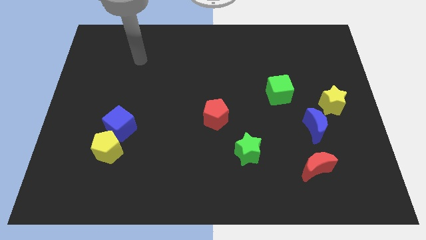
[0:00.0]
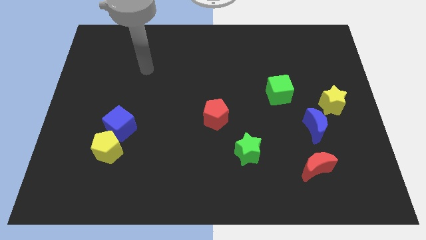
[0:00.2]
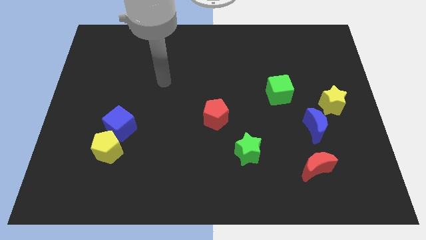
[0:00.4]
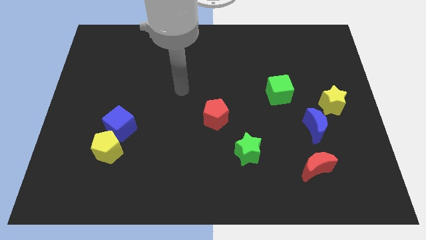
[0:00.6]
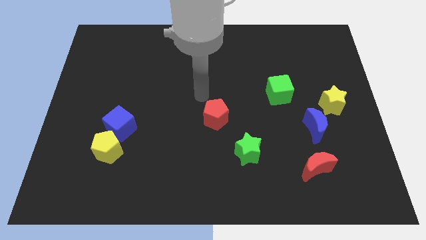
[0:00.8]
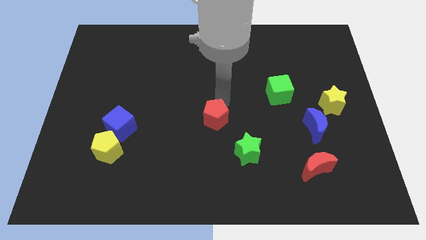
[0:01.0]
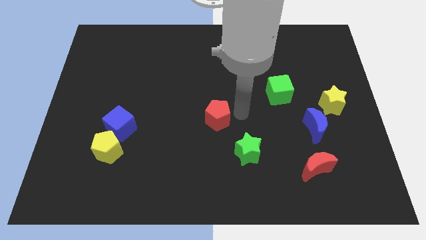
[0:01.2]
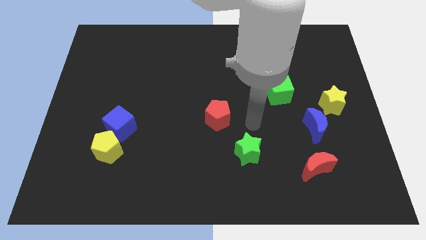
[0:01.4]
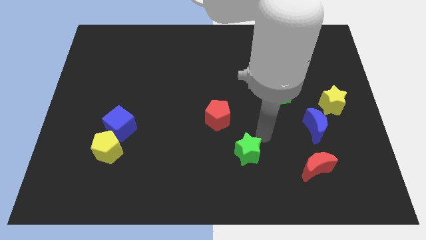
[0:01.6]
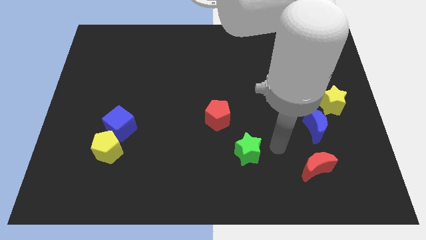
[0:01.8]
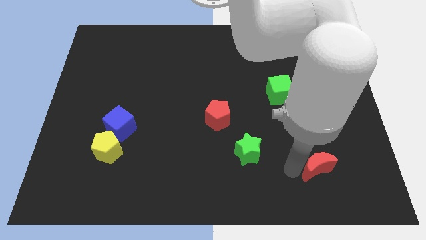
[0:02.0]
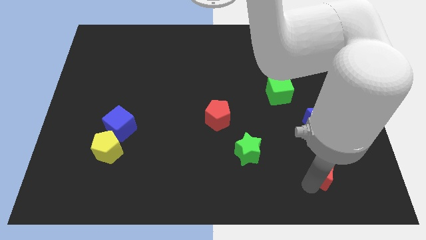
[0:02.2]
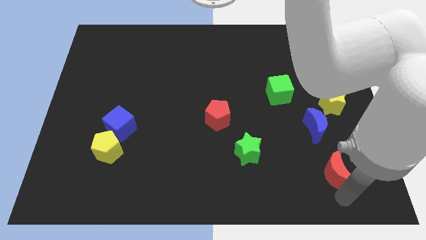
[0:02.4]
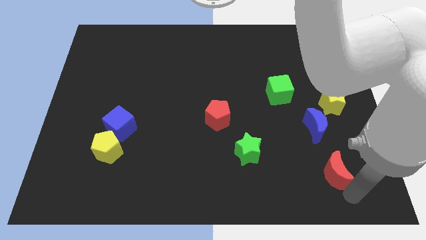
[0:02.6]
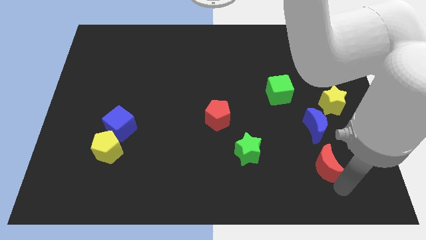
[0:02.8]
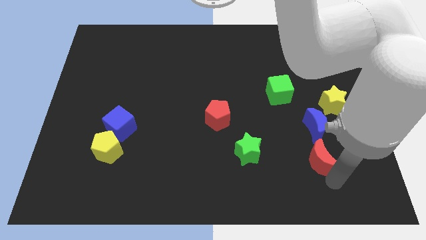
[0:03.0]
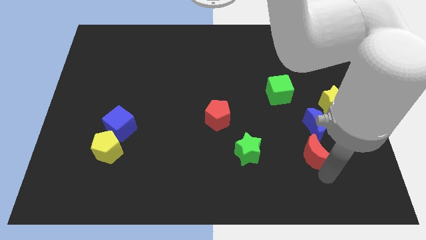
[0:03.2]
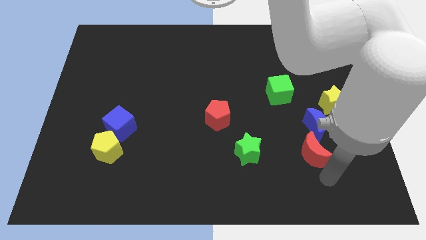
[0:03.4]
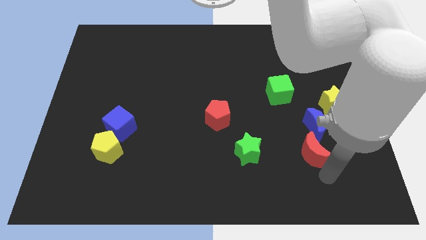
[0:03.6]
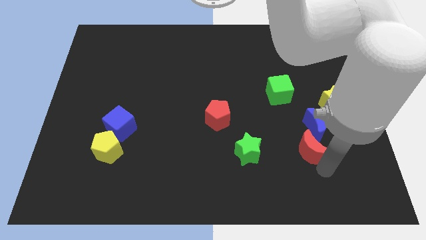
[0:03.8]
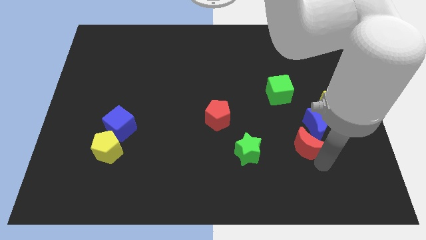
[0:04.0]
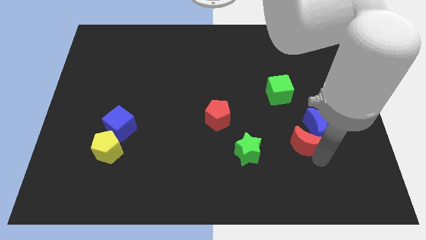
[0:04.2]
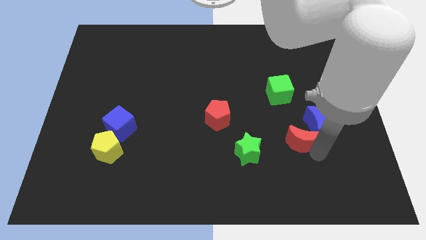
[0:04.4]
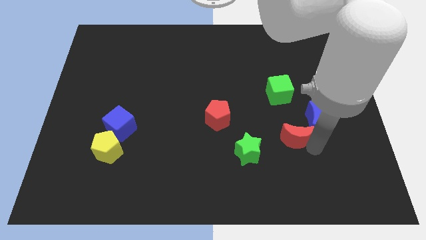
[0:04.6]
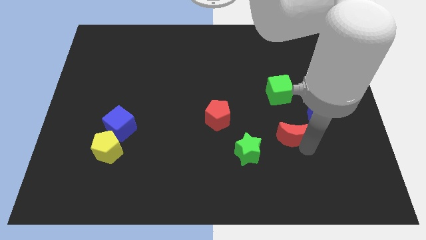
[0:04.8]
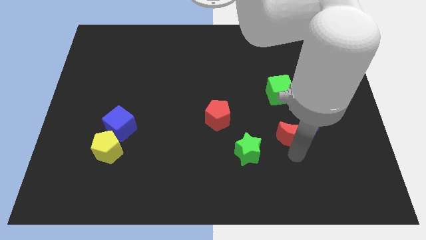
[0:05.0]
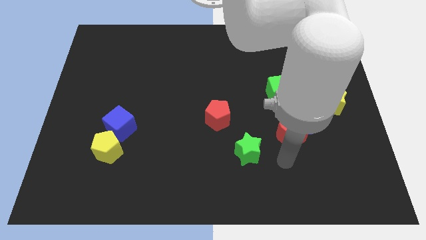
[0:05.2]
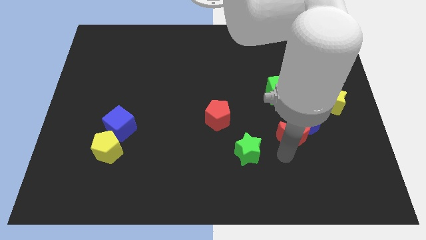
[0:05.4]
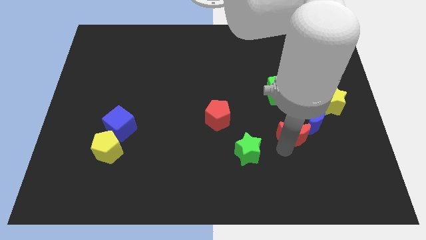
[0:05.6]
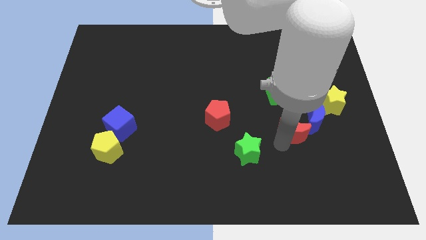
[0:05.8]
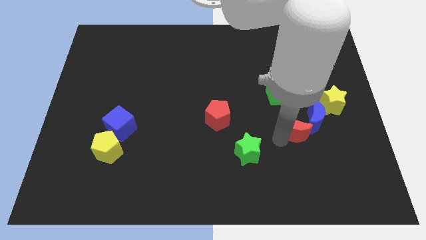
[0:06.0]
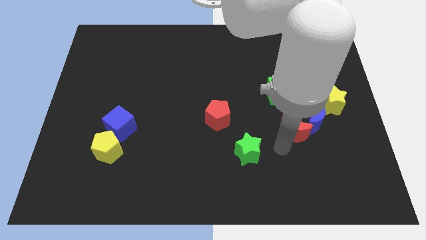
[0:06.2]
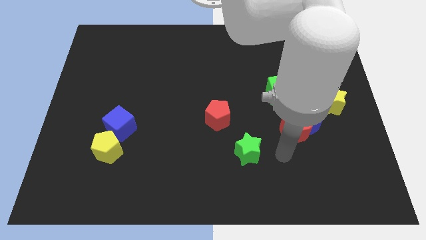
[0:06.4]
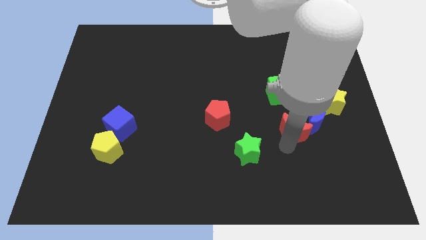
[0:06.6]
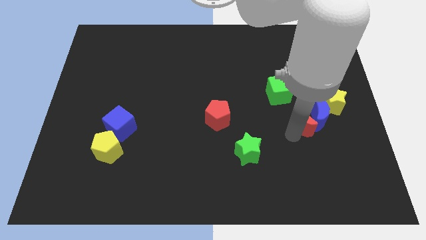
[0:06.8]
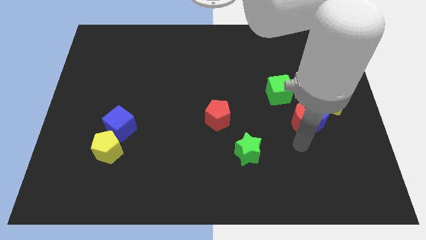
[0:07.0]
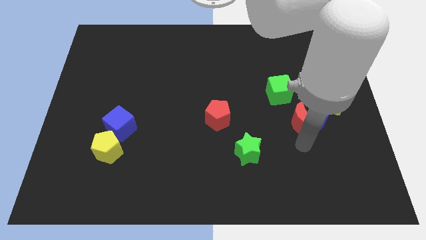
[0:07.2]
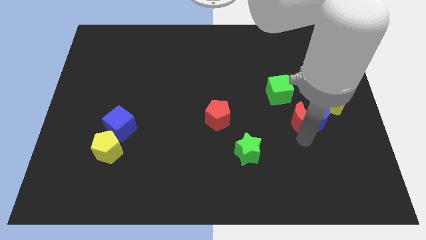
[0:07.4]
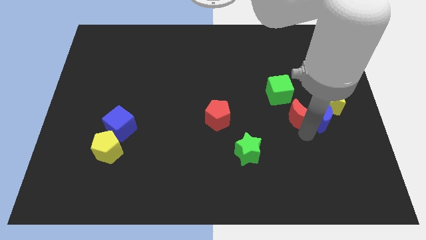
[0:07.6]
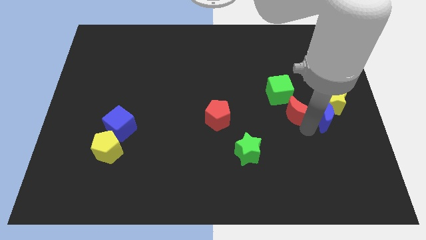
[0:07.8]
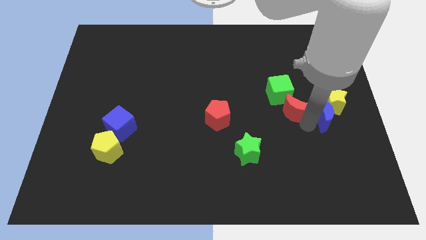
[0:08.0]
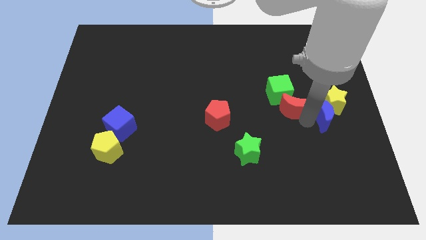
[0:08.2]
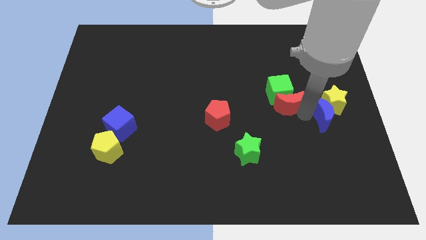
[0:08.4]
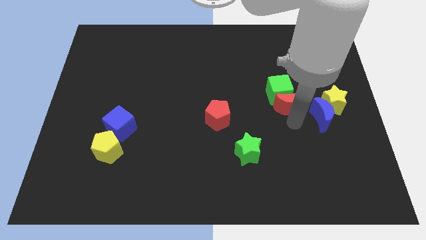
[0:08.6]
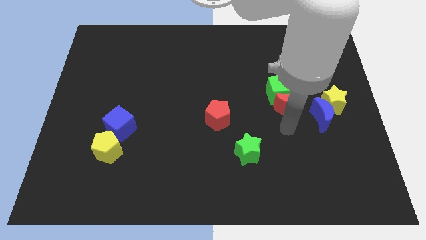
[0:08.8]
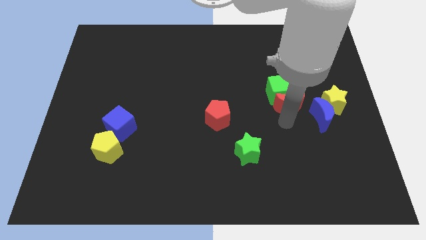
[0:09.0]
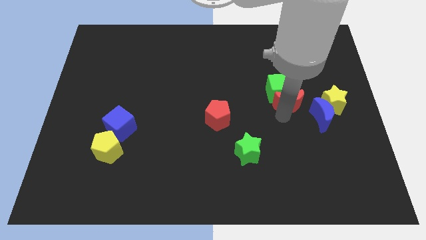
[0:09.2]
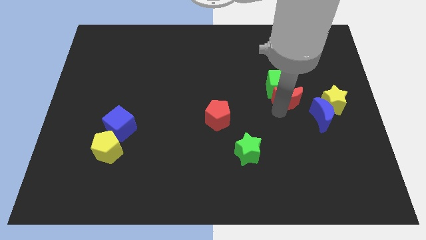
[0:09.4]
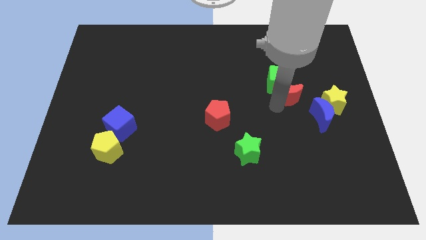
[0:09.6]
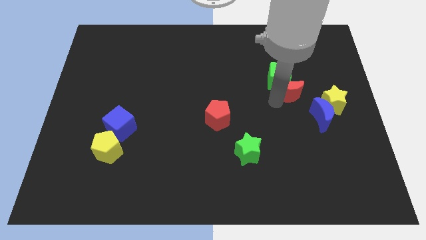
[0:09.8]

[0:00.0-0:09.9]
move the red moon up

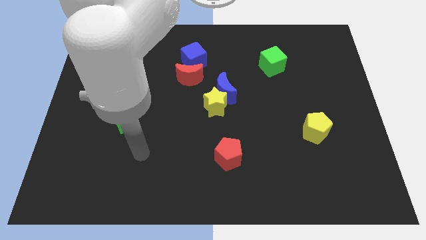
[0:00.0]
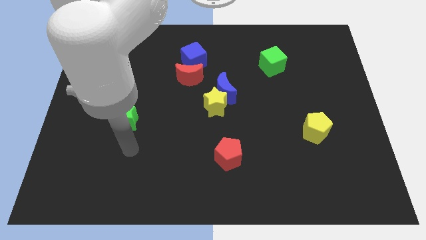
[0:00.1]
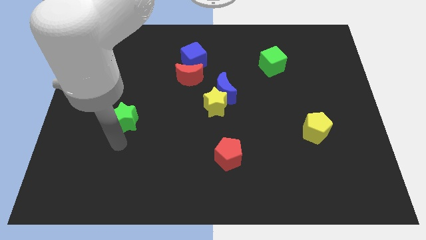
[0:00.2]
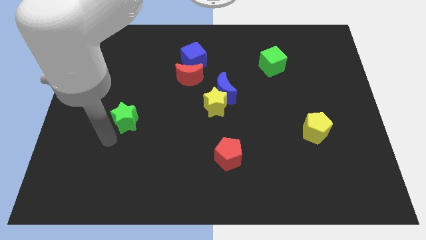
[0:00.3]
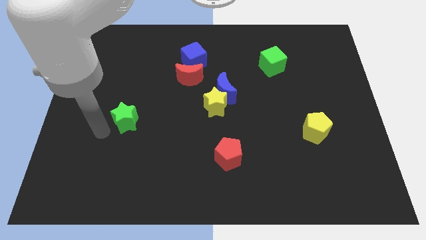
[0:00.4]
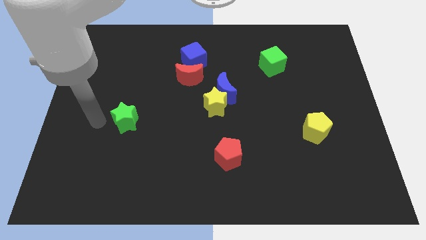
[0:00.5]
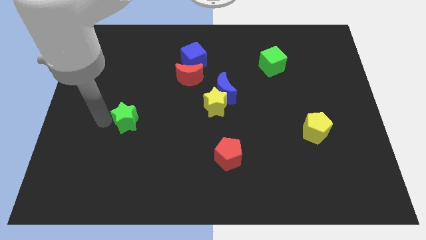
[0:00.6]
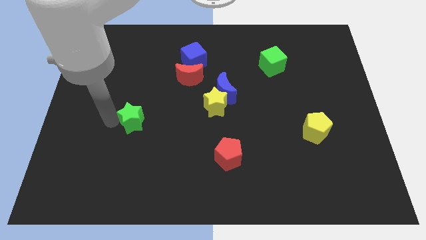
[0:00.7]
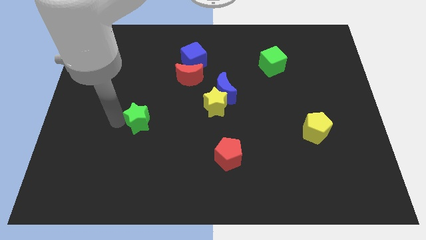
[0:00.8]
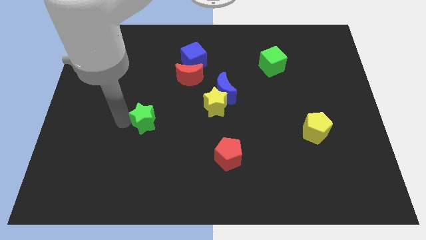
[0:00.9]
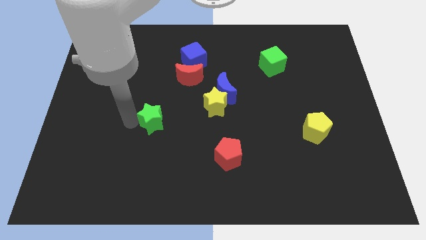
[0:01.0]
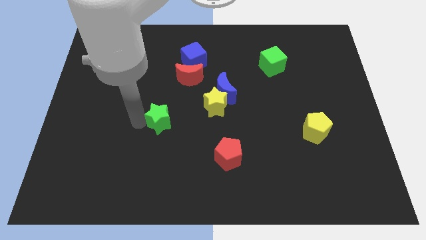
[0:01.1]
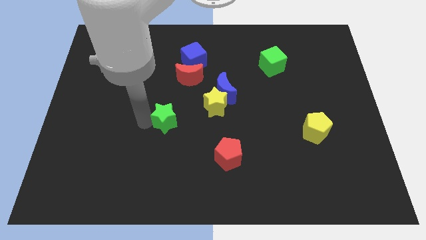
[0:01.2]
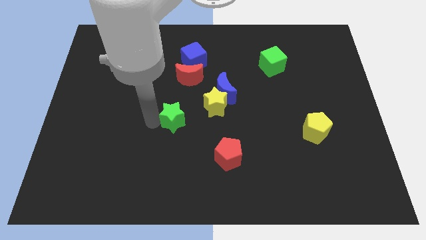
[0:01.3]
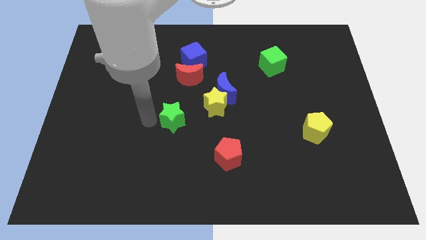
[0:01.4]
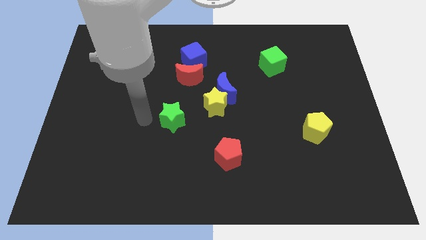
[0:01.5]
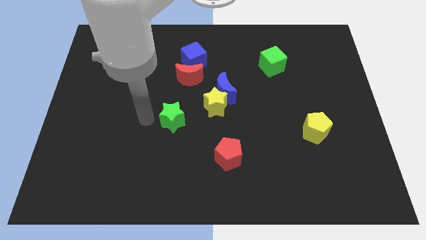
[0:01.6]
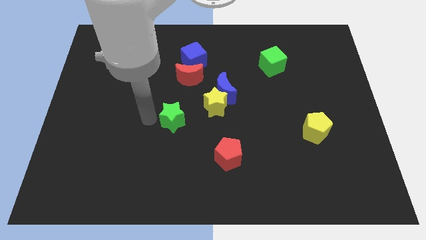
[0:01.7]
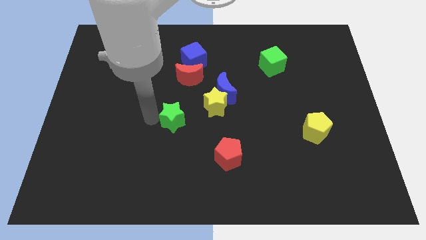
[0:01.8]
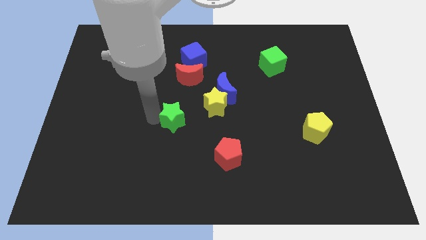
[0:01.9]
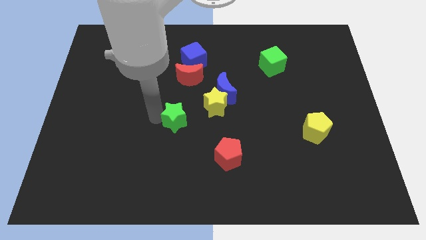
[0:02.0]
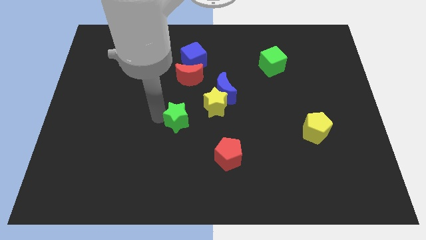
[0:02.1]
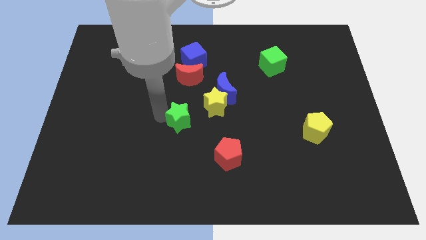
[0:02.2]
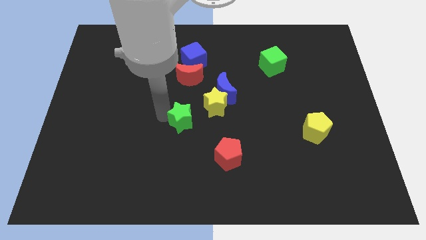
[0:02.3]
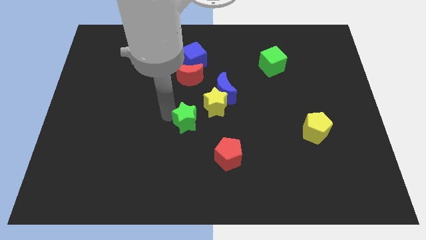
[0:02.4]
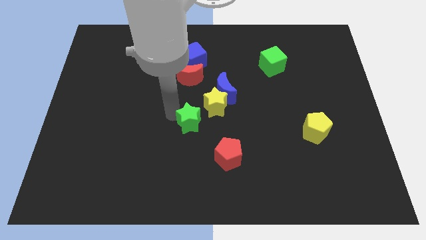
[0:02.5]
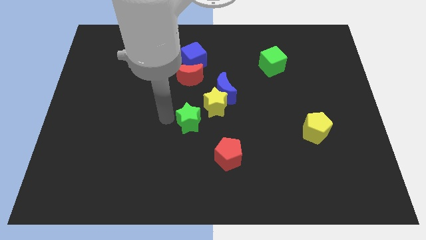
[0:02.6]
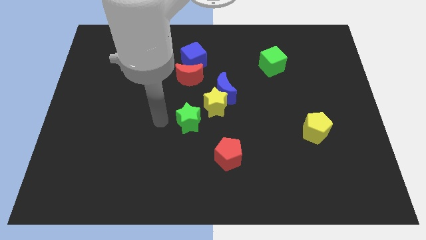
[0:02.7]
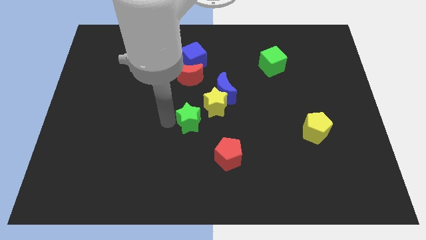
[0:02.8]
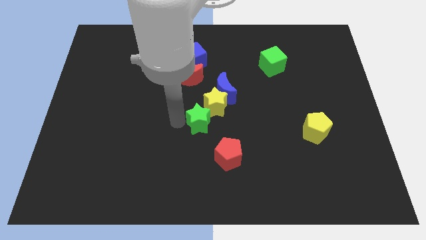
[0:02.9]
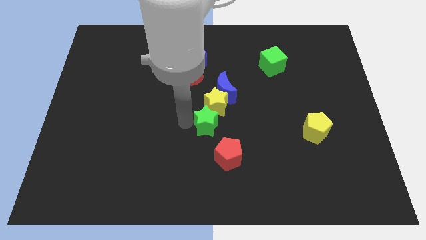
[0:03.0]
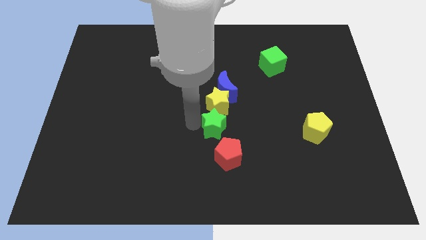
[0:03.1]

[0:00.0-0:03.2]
slide the green star right

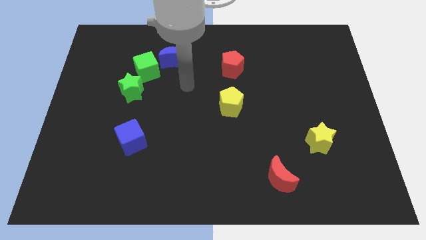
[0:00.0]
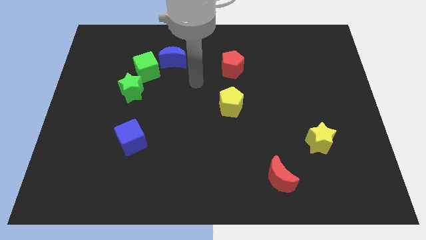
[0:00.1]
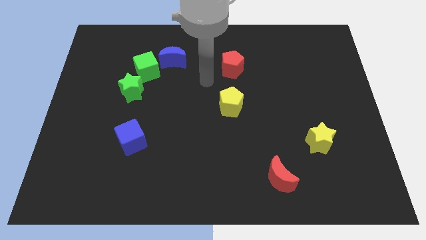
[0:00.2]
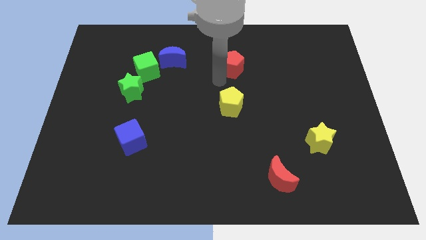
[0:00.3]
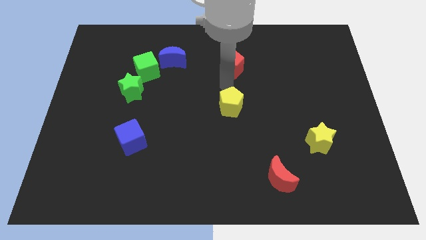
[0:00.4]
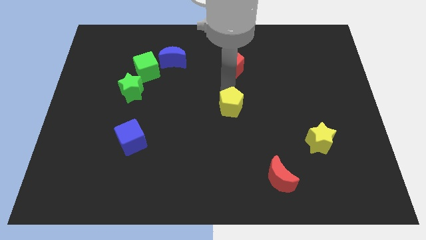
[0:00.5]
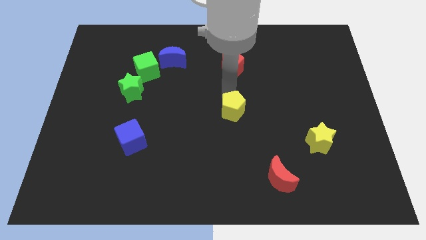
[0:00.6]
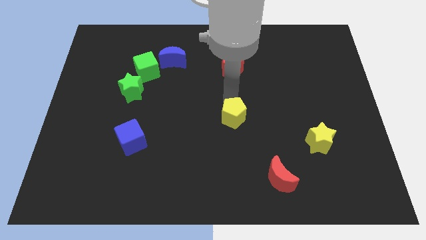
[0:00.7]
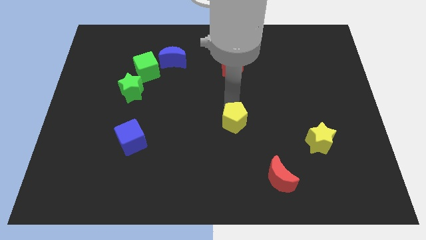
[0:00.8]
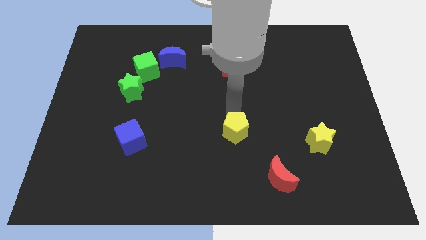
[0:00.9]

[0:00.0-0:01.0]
slightly slide the yellow pentagon down
